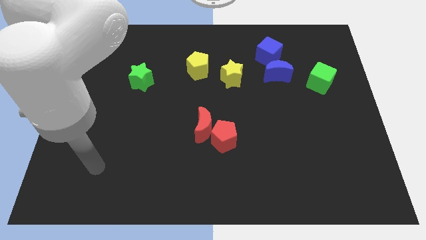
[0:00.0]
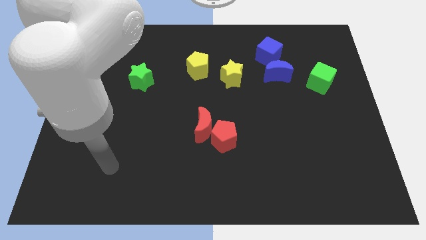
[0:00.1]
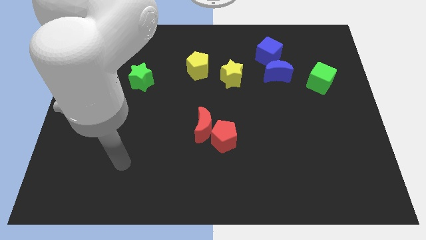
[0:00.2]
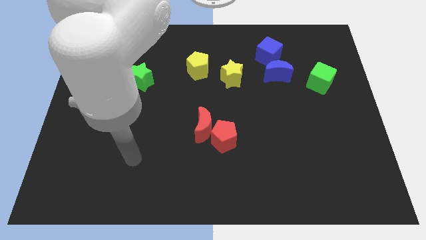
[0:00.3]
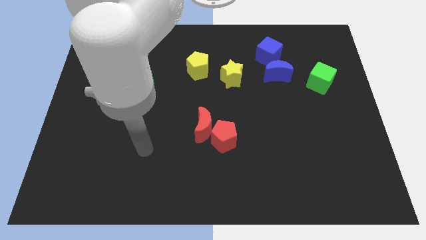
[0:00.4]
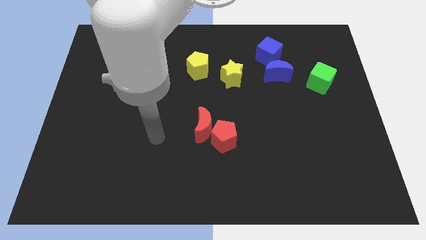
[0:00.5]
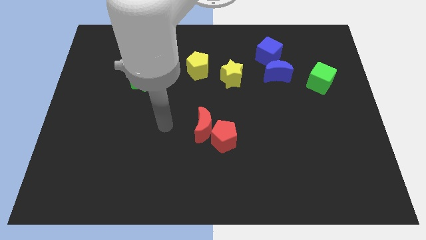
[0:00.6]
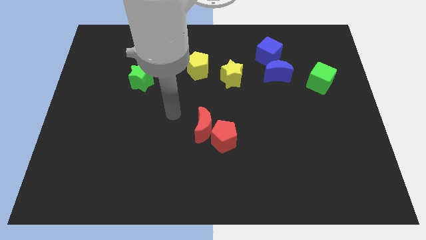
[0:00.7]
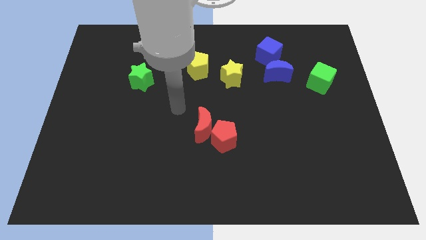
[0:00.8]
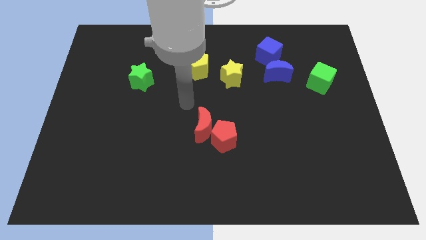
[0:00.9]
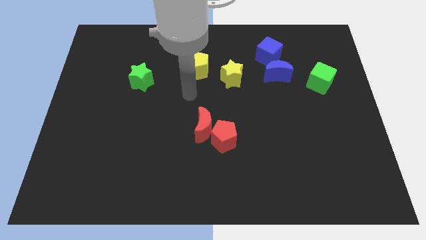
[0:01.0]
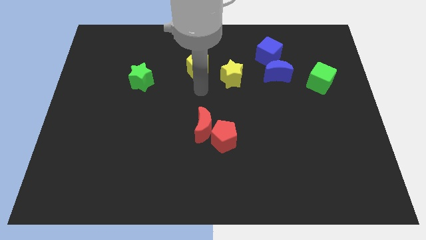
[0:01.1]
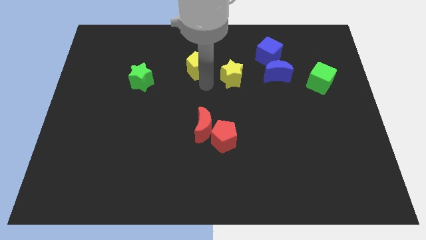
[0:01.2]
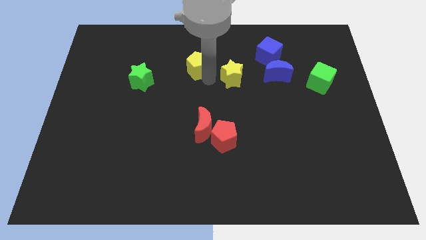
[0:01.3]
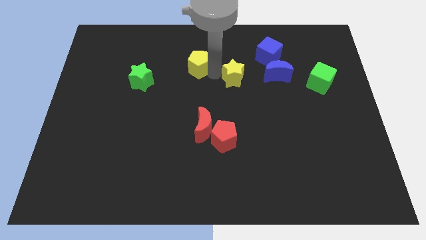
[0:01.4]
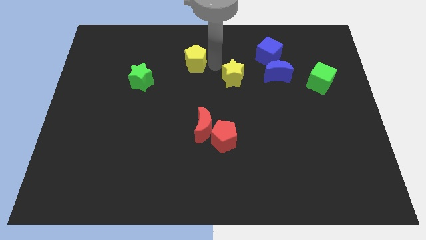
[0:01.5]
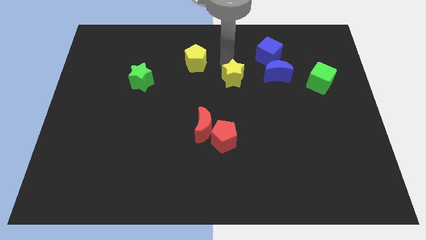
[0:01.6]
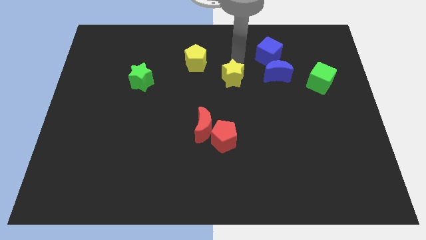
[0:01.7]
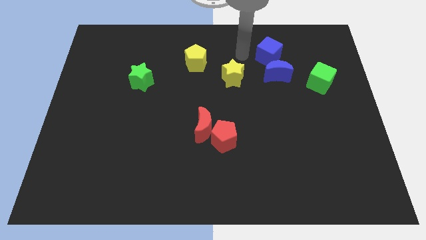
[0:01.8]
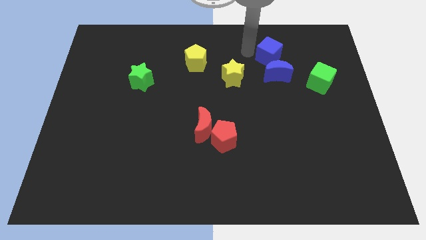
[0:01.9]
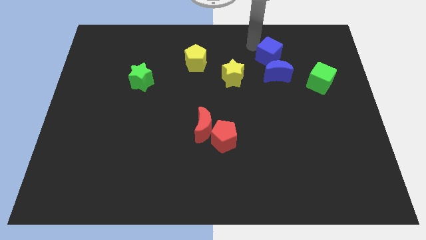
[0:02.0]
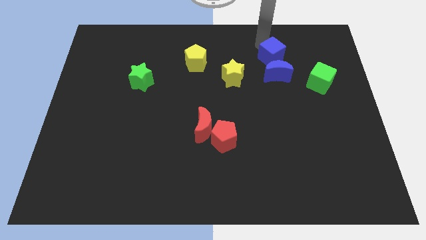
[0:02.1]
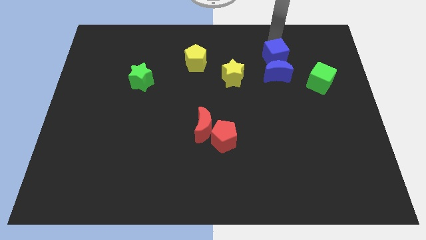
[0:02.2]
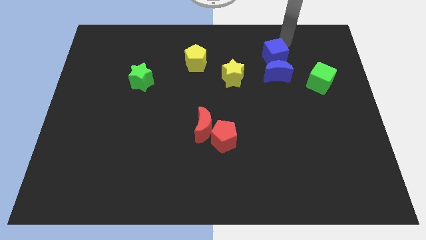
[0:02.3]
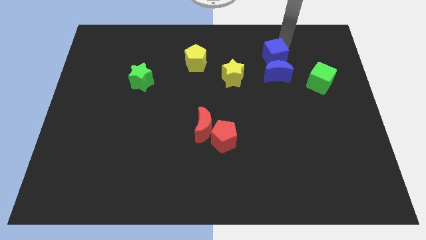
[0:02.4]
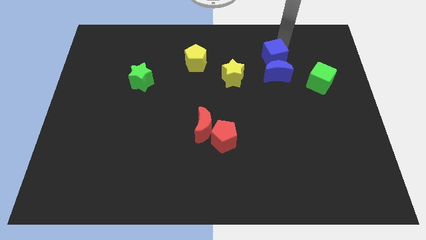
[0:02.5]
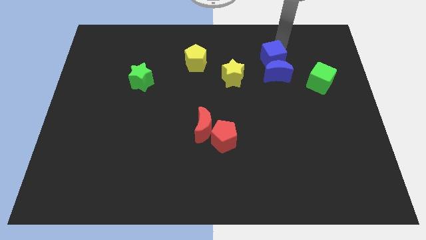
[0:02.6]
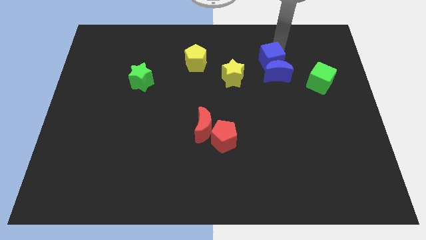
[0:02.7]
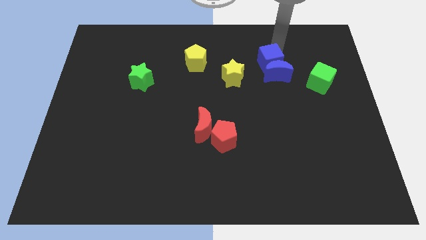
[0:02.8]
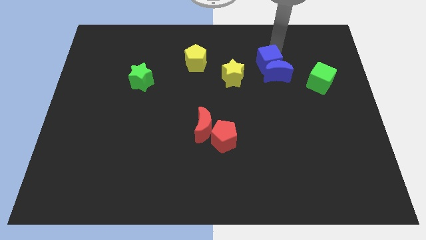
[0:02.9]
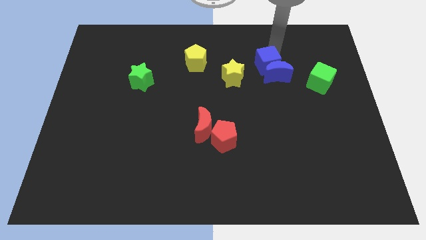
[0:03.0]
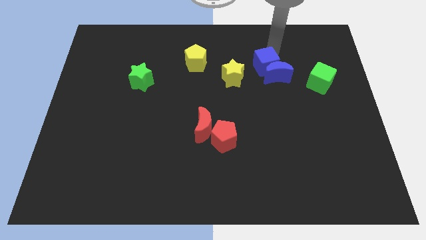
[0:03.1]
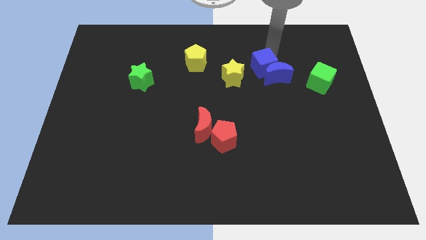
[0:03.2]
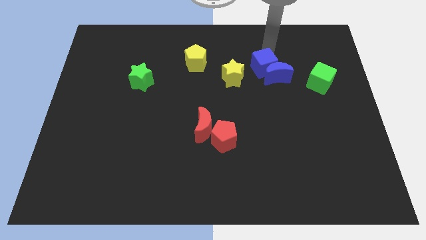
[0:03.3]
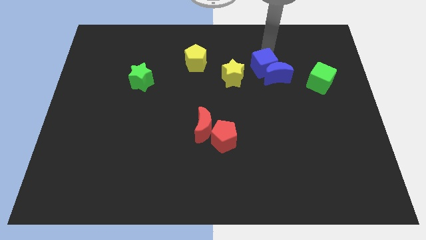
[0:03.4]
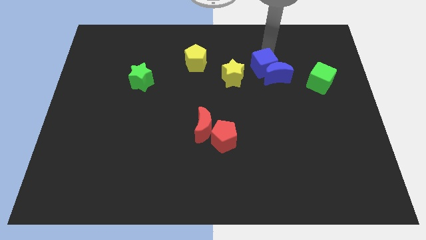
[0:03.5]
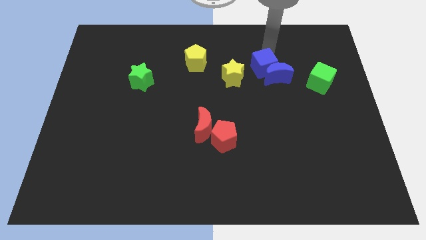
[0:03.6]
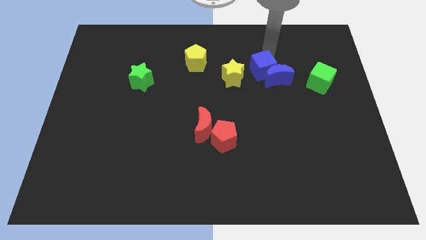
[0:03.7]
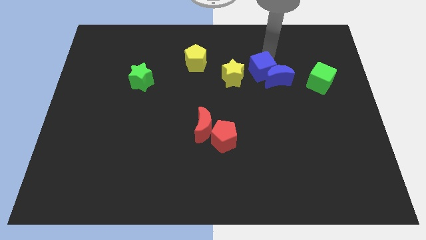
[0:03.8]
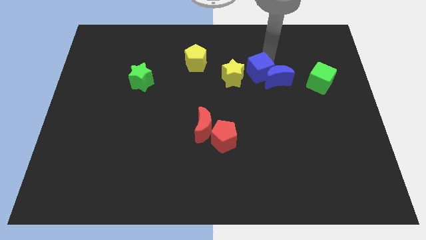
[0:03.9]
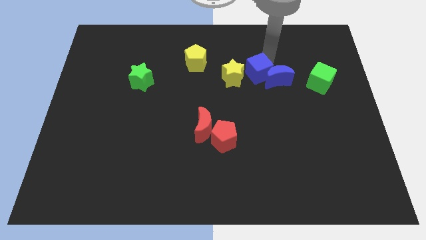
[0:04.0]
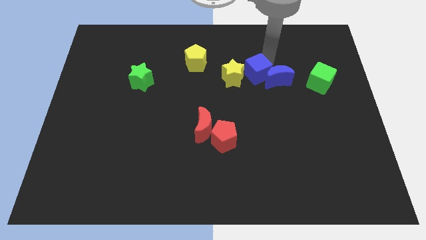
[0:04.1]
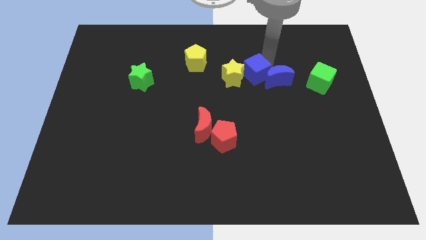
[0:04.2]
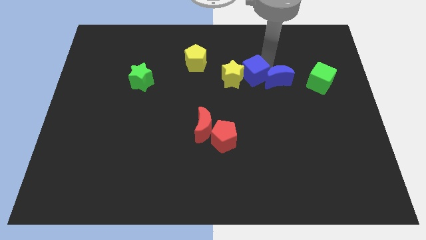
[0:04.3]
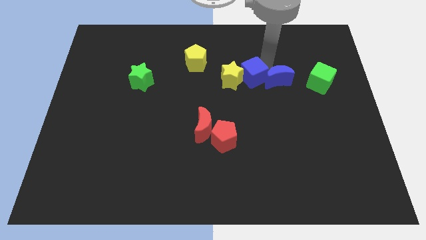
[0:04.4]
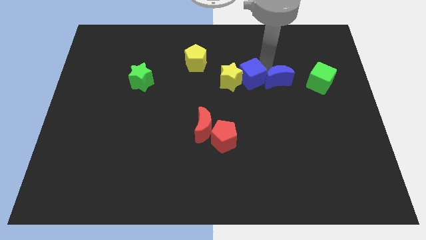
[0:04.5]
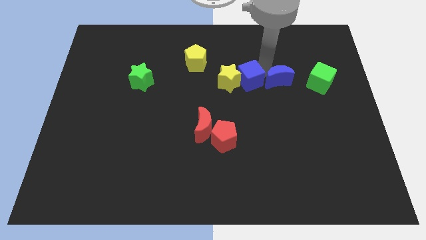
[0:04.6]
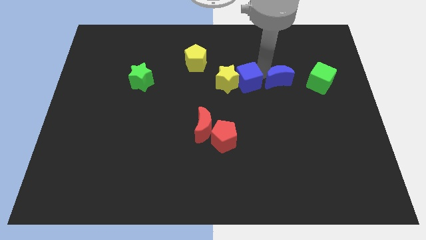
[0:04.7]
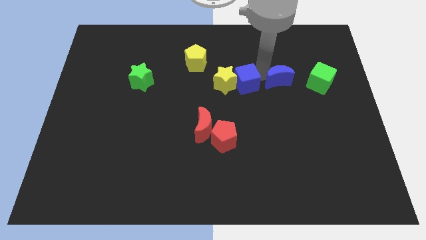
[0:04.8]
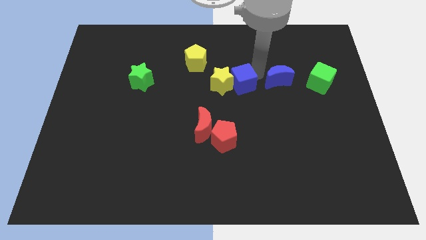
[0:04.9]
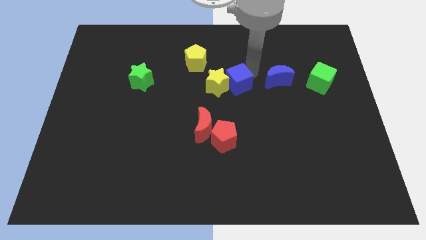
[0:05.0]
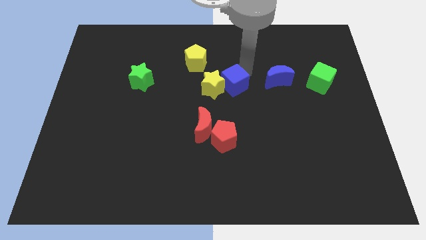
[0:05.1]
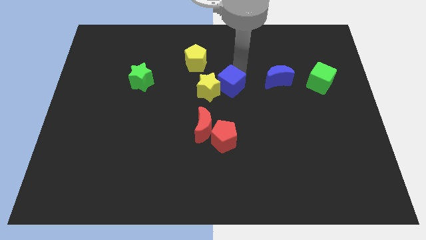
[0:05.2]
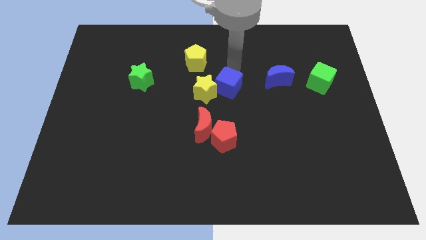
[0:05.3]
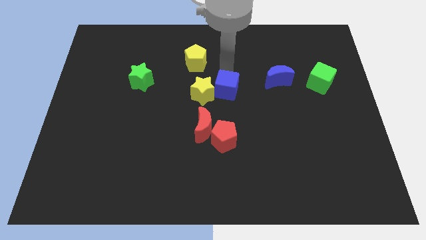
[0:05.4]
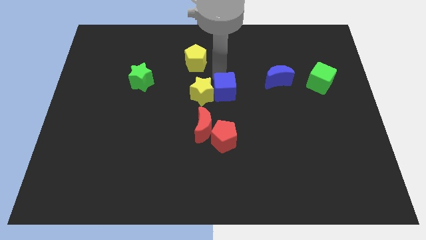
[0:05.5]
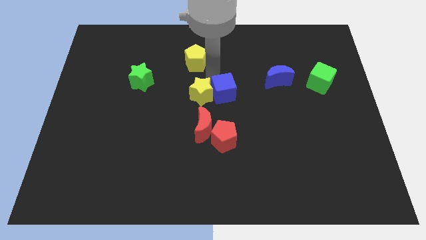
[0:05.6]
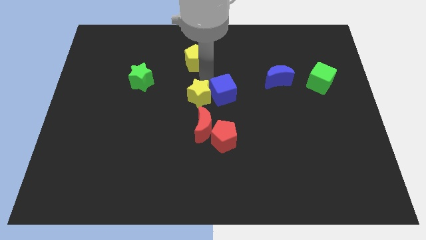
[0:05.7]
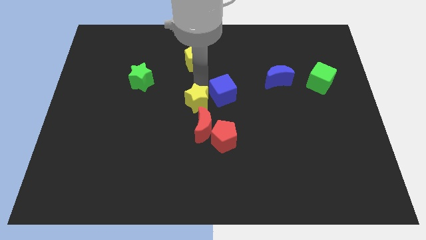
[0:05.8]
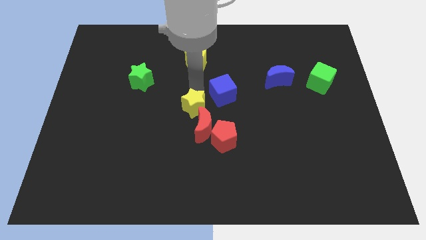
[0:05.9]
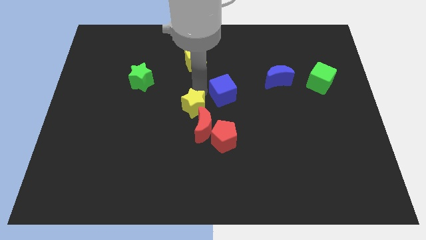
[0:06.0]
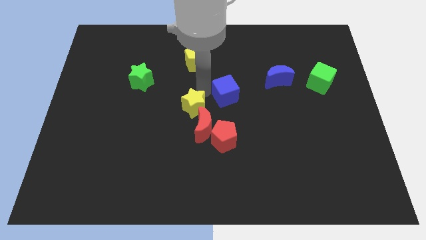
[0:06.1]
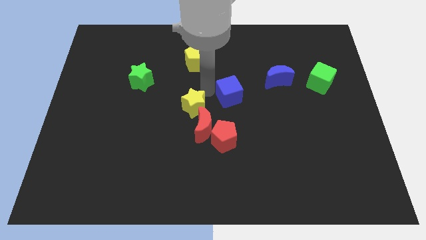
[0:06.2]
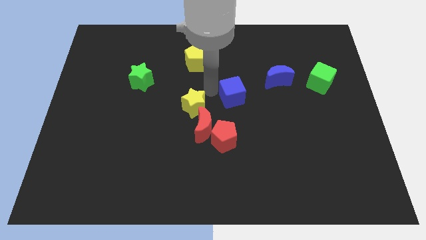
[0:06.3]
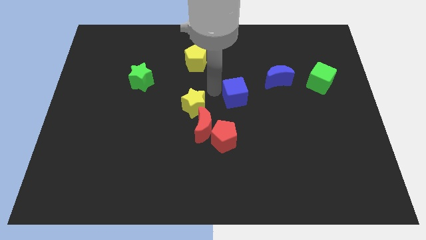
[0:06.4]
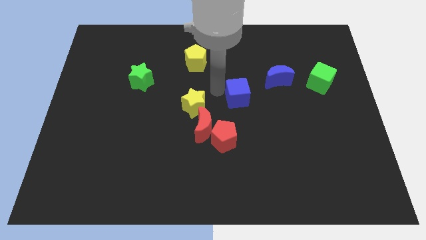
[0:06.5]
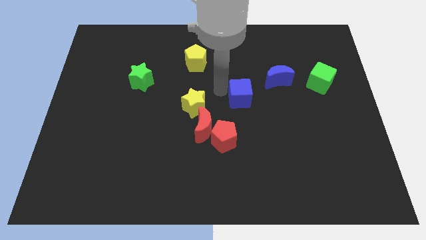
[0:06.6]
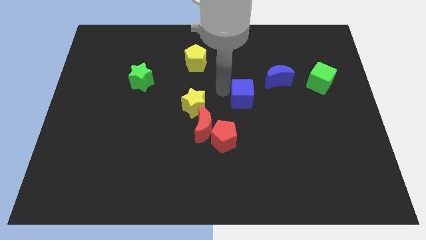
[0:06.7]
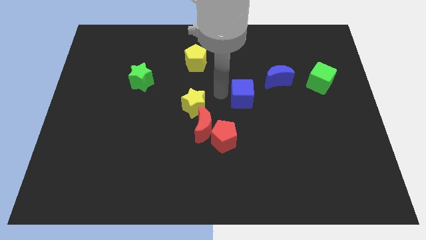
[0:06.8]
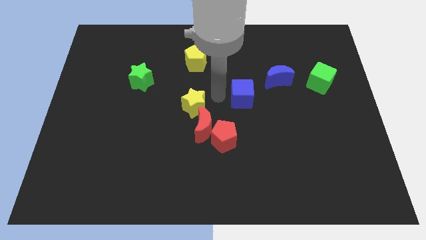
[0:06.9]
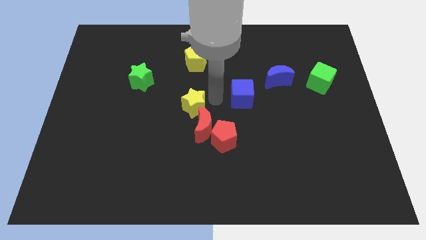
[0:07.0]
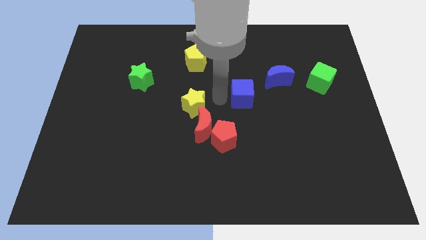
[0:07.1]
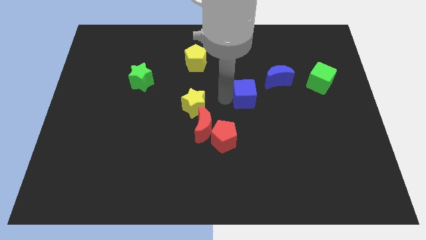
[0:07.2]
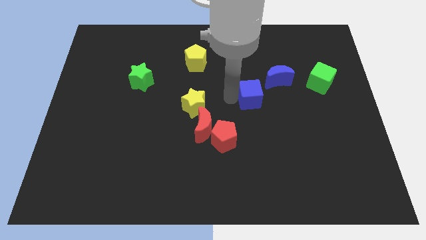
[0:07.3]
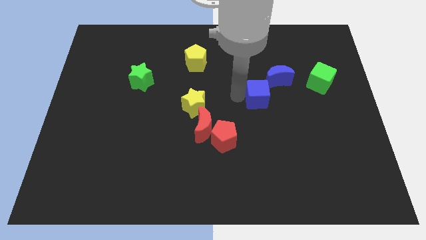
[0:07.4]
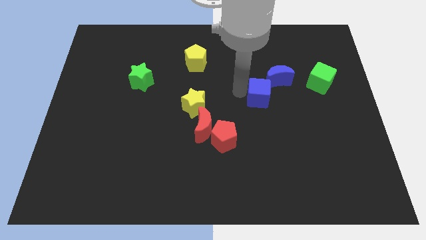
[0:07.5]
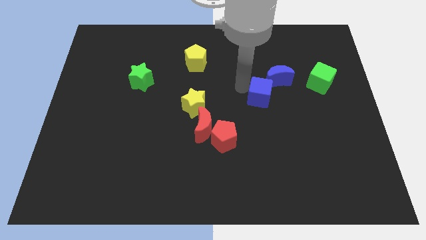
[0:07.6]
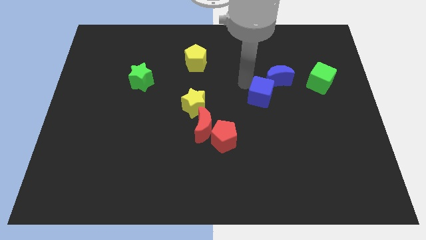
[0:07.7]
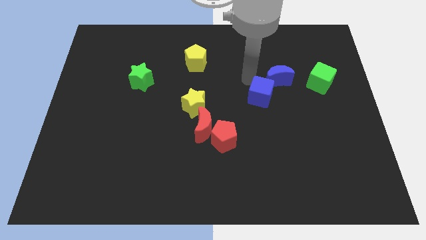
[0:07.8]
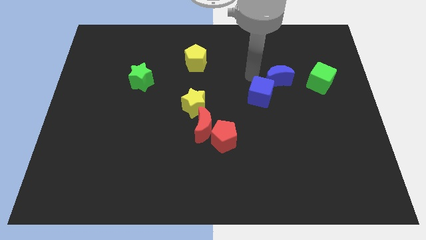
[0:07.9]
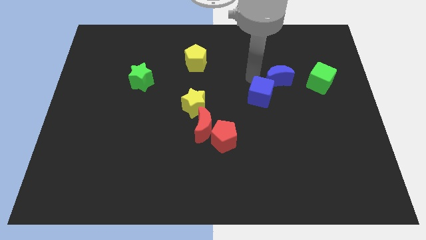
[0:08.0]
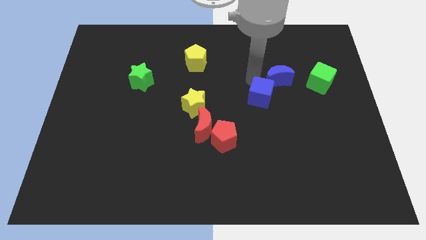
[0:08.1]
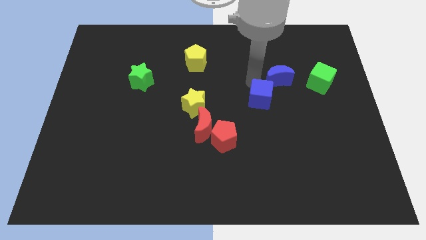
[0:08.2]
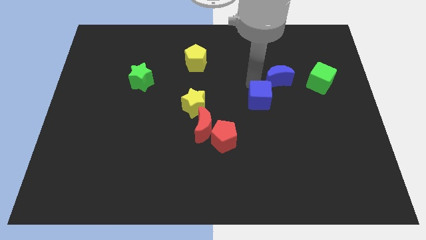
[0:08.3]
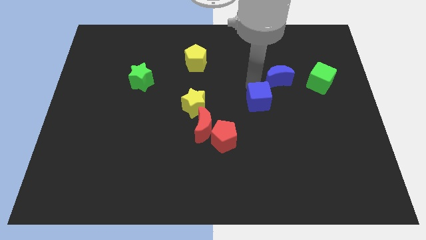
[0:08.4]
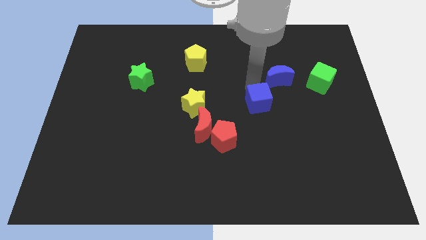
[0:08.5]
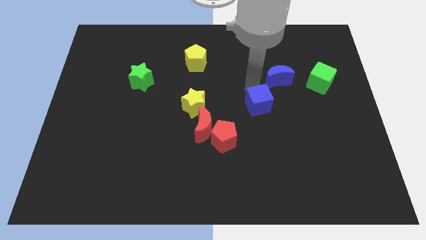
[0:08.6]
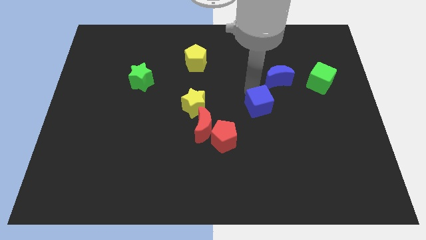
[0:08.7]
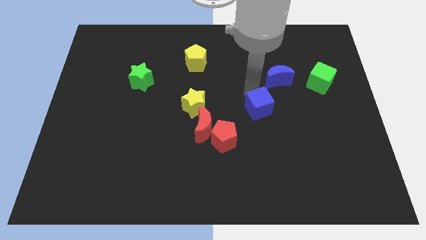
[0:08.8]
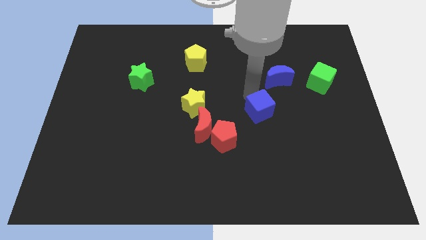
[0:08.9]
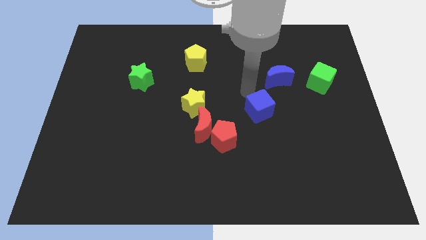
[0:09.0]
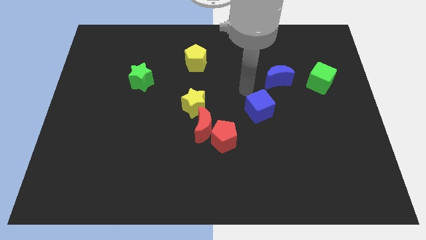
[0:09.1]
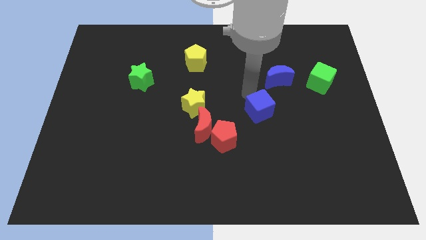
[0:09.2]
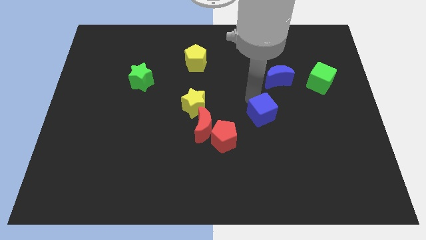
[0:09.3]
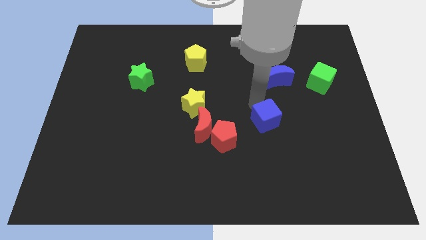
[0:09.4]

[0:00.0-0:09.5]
push the blue cube downwards
